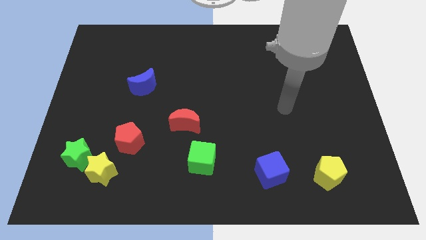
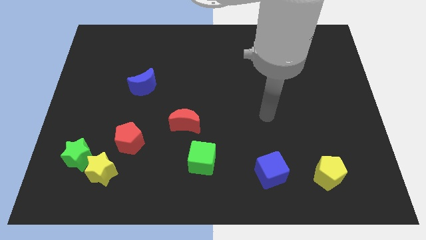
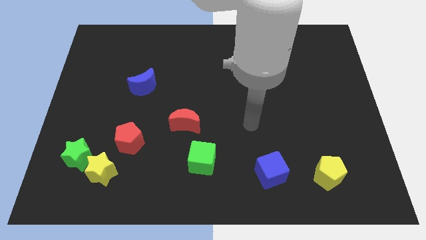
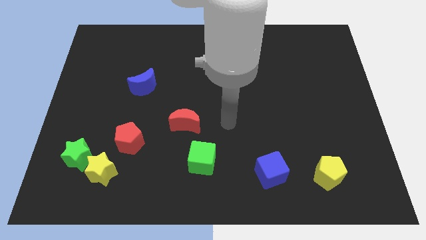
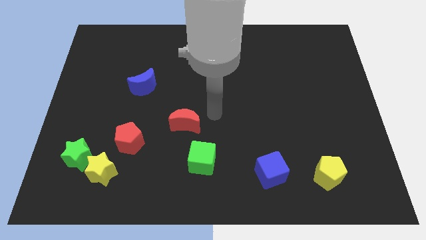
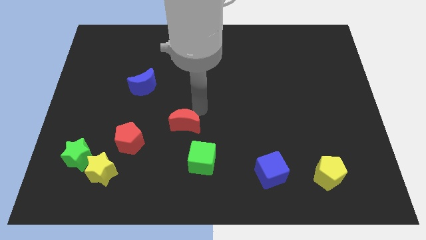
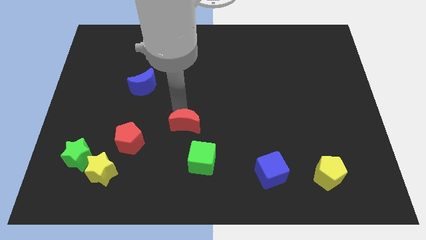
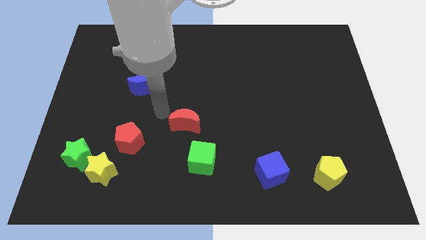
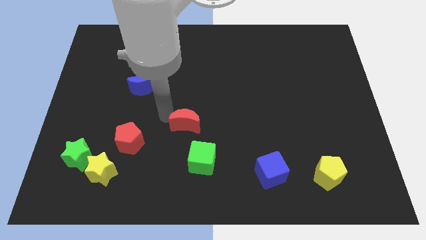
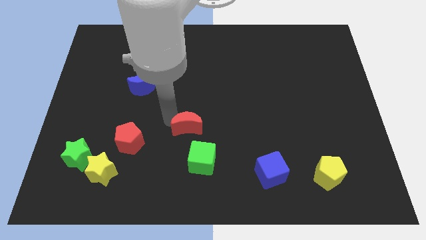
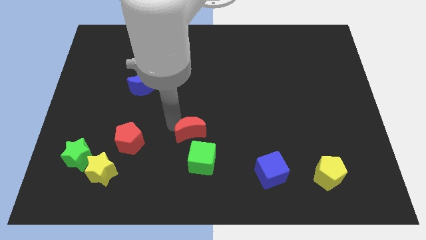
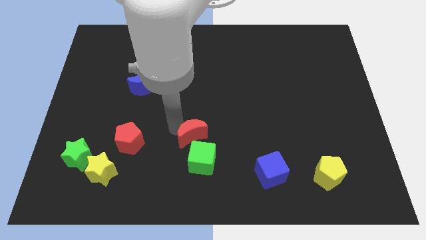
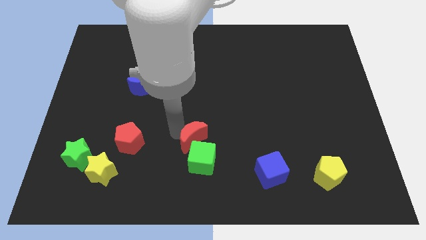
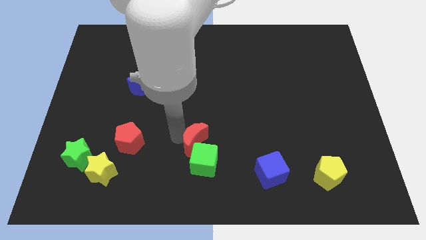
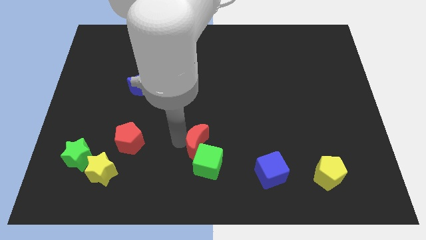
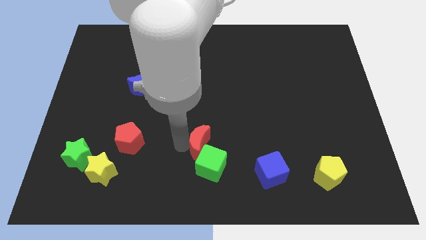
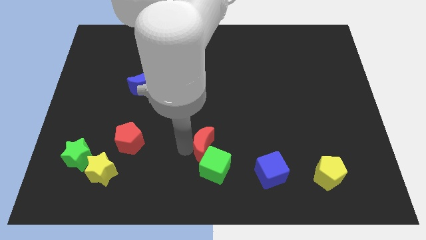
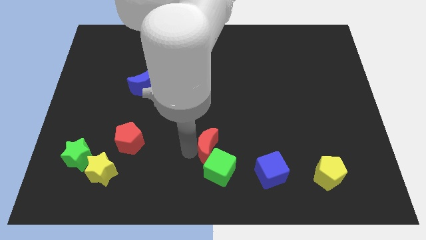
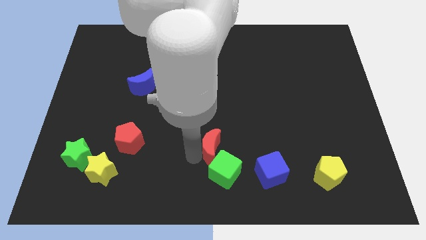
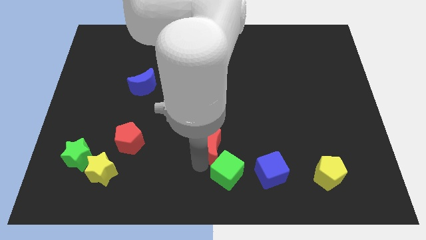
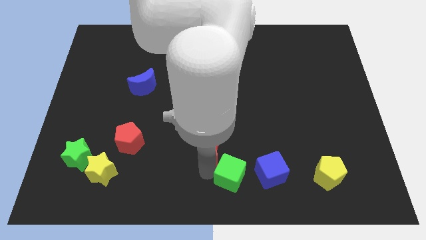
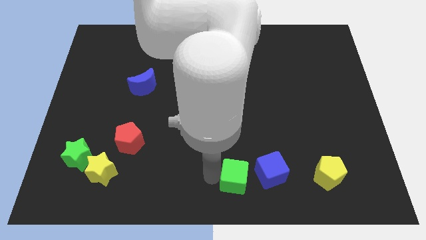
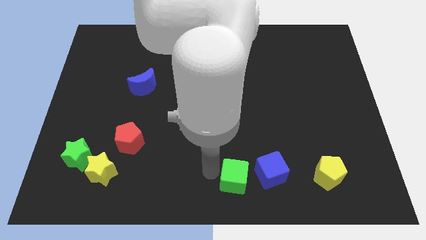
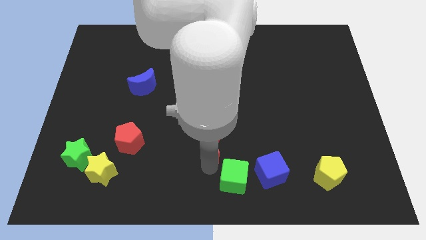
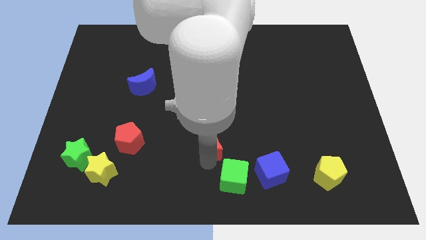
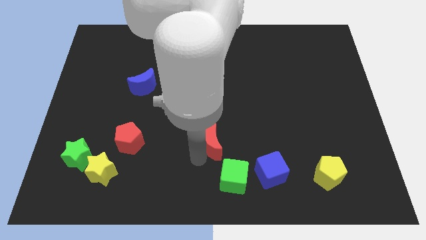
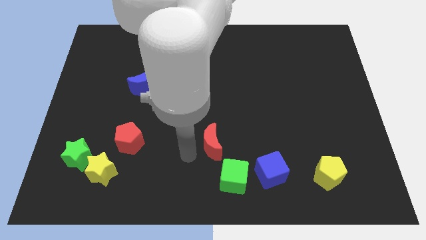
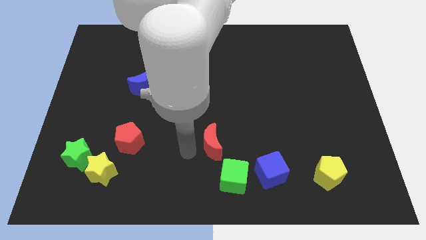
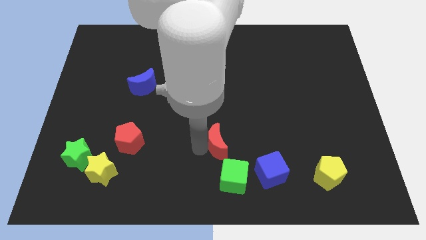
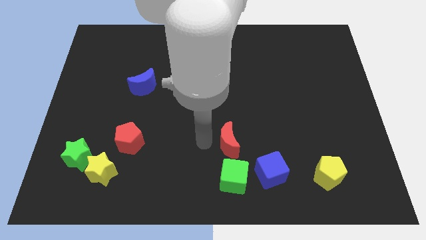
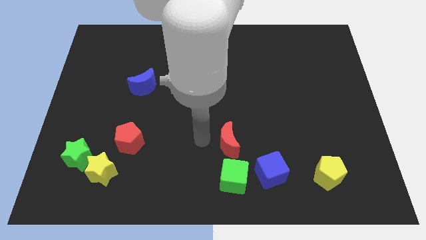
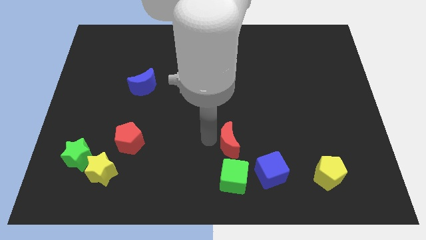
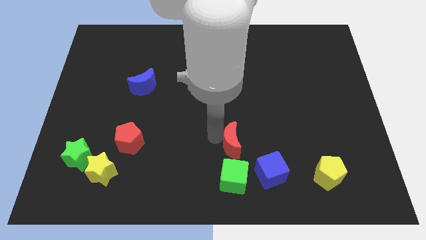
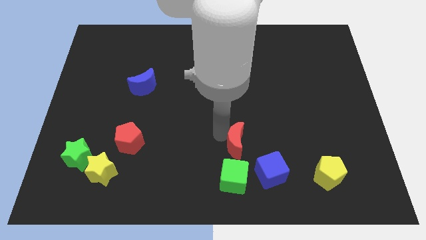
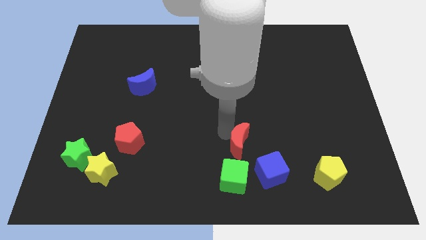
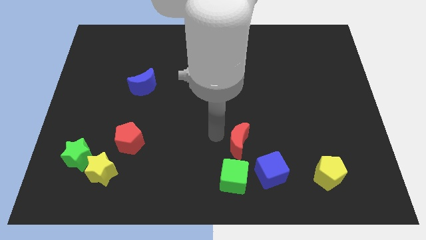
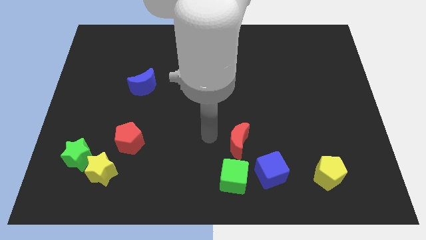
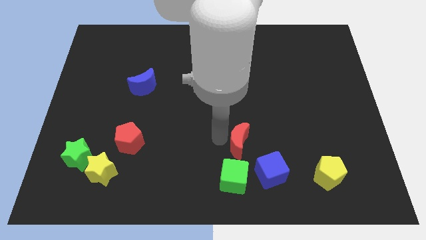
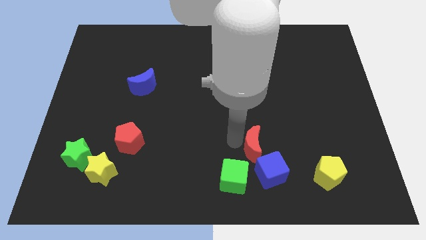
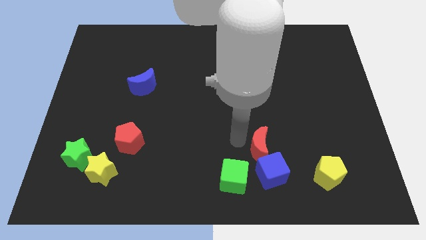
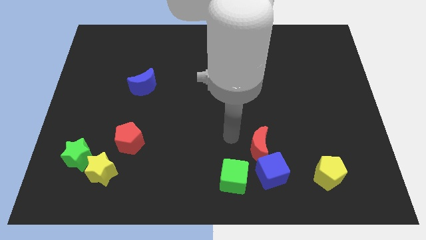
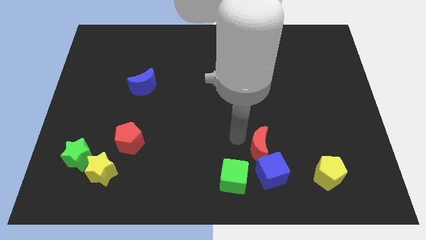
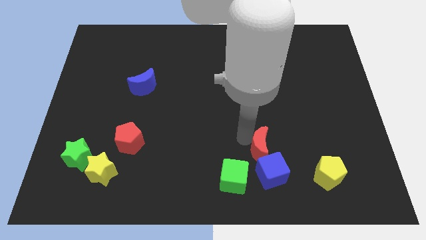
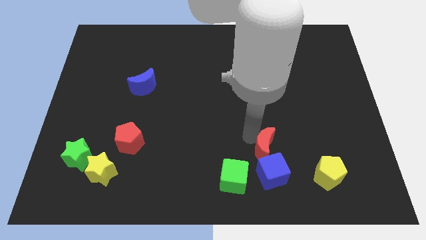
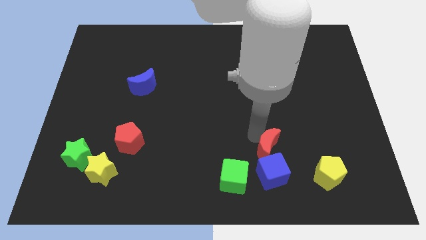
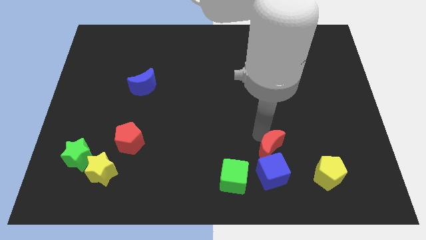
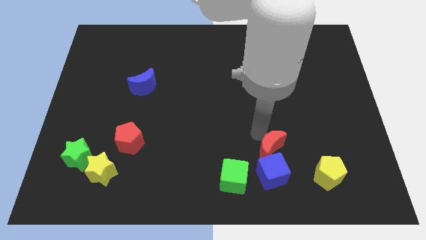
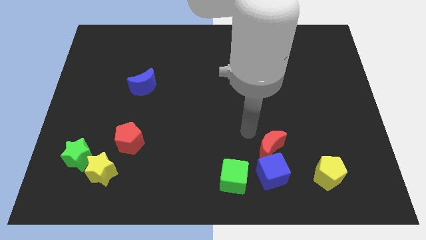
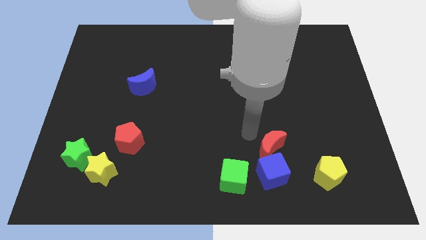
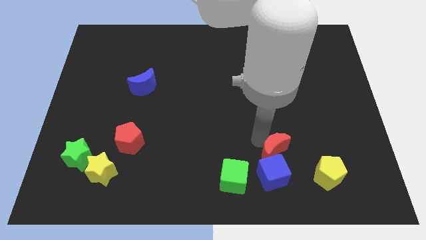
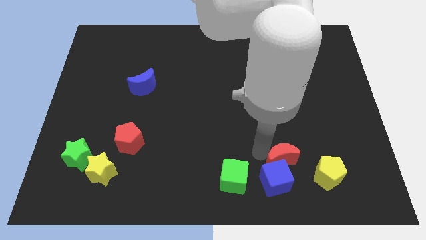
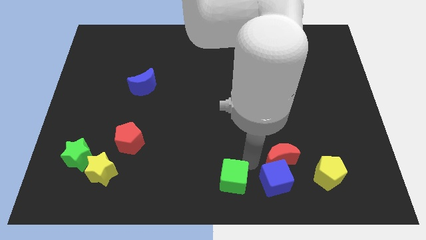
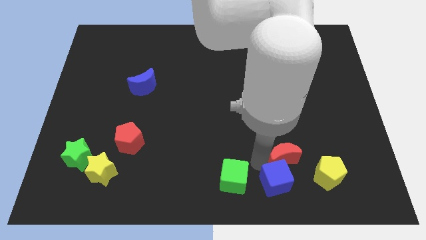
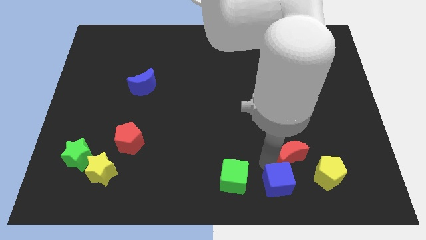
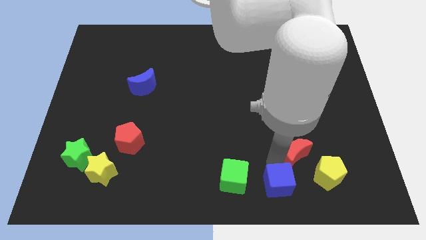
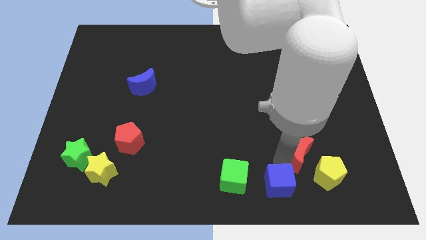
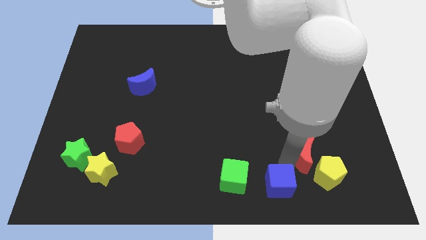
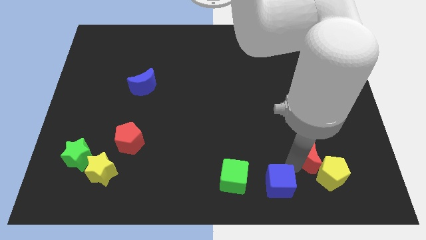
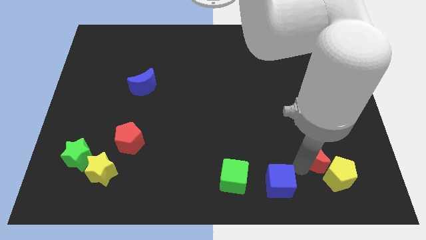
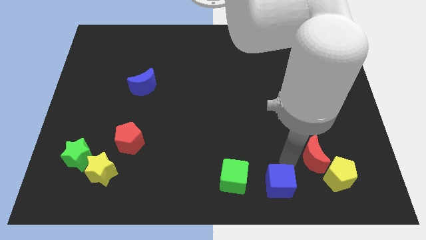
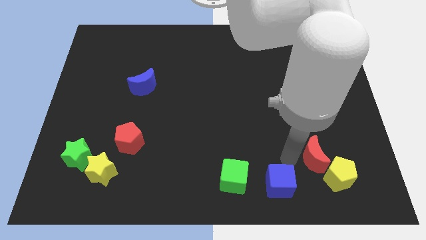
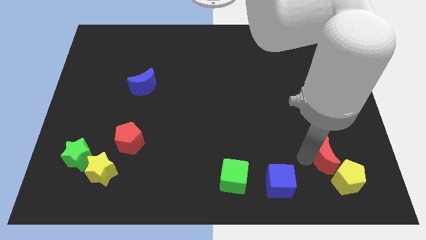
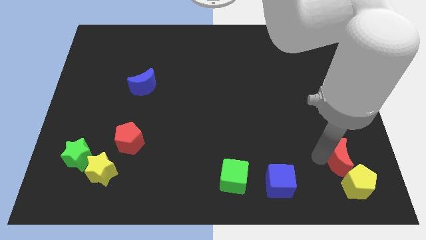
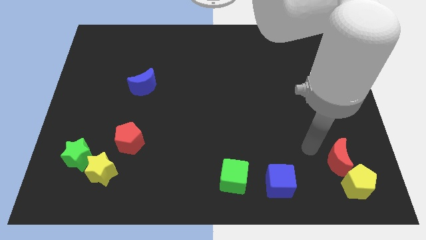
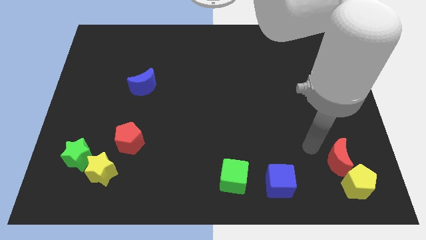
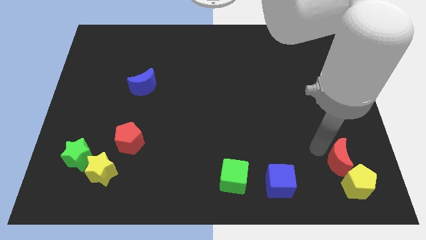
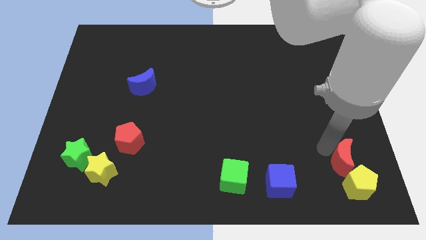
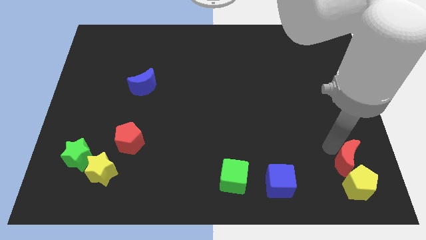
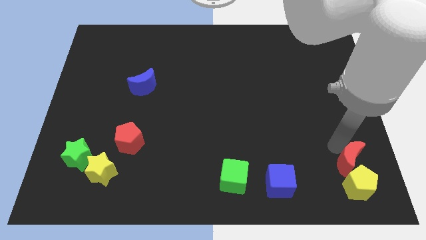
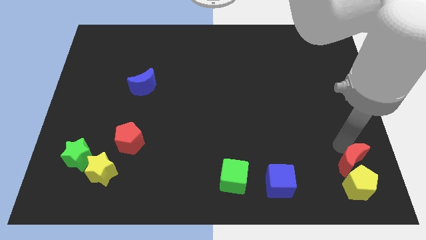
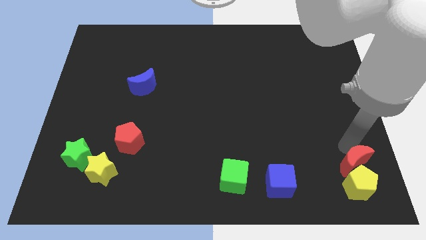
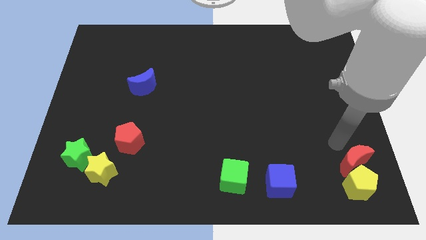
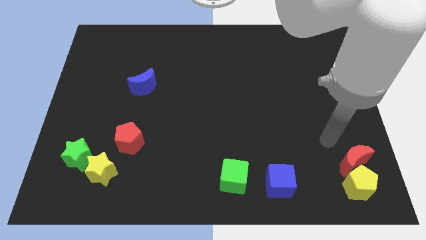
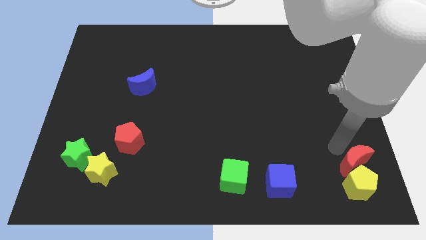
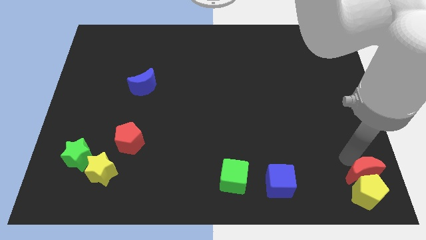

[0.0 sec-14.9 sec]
push the red moon to the lower right corner

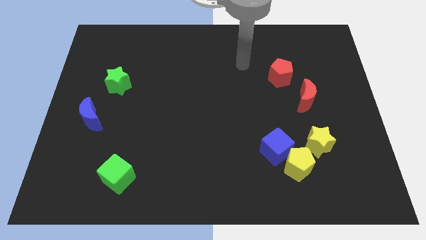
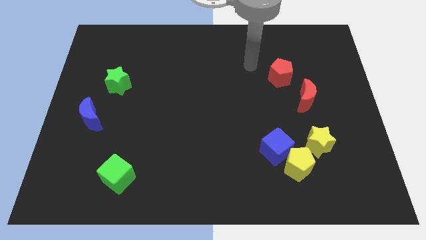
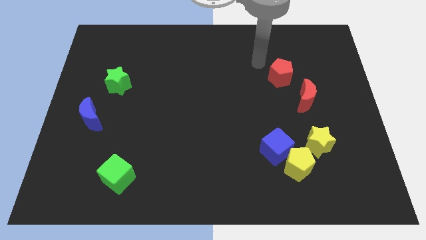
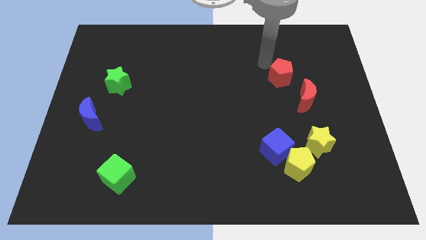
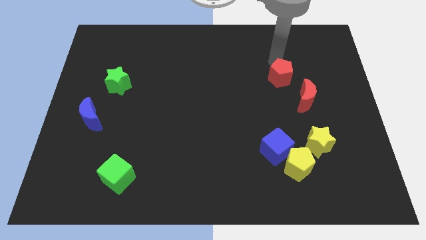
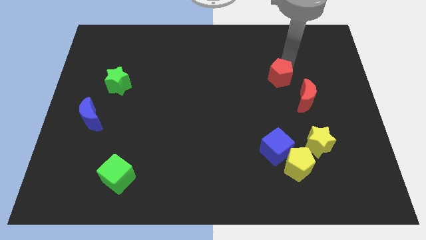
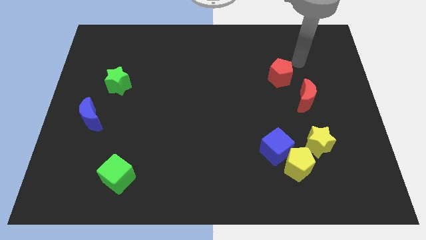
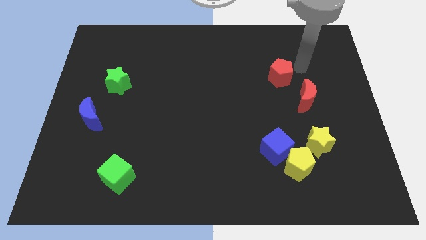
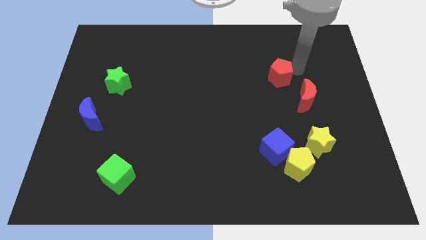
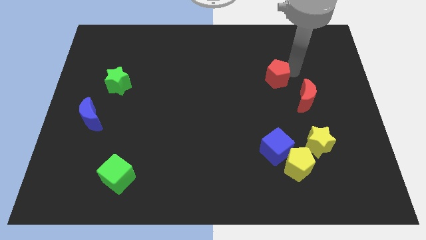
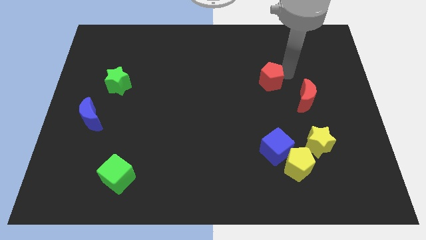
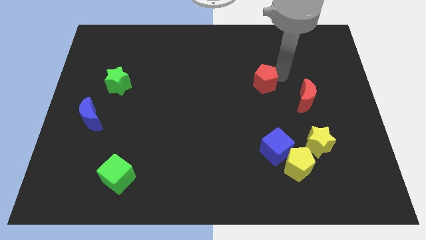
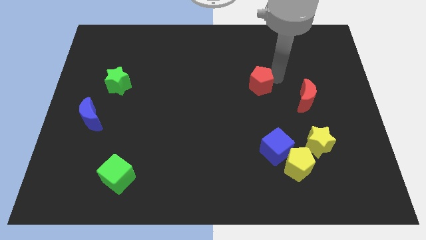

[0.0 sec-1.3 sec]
push the red pentagon to the middle of the board
